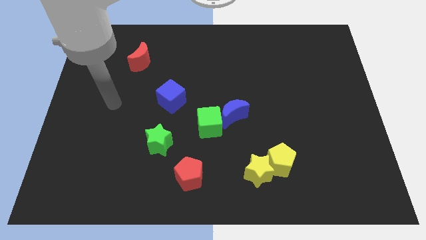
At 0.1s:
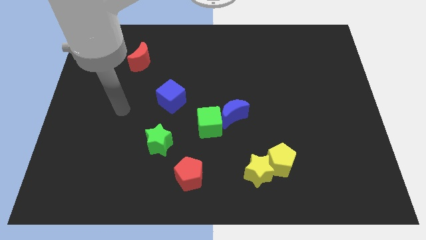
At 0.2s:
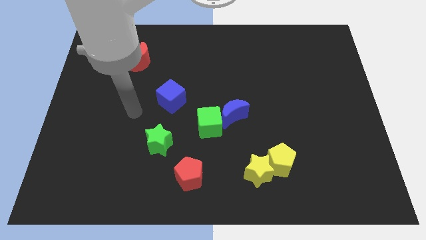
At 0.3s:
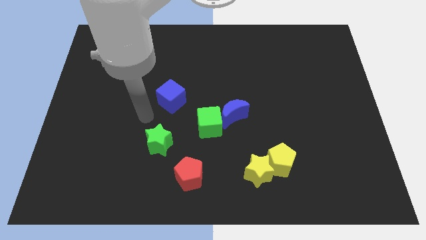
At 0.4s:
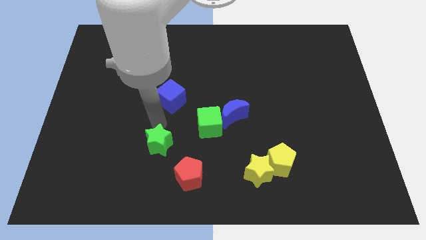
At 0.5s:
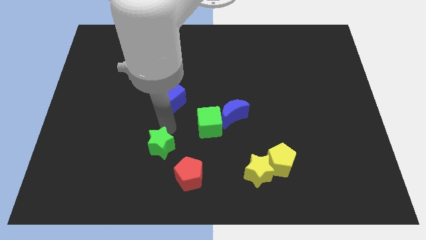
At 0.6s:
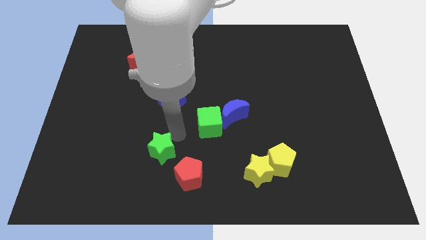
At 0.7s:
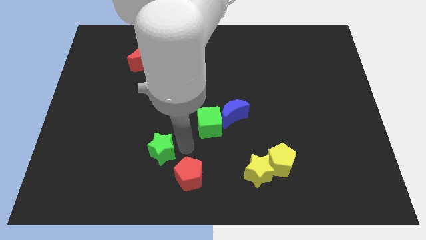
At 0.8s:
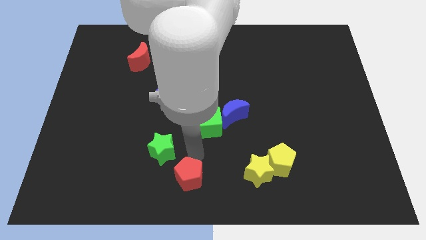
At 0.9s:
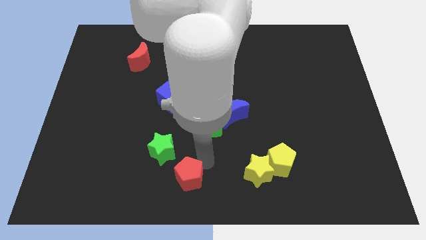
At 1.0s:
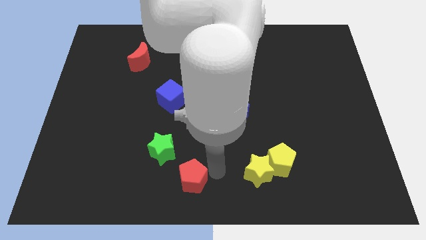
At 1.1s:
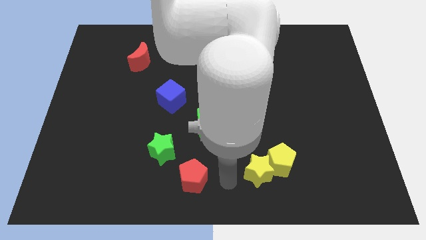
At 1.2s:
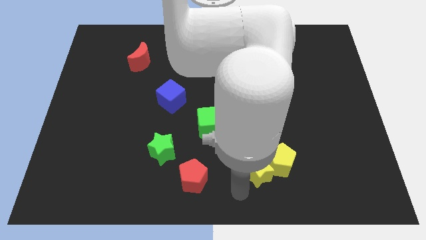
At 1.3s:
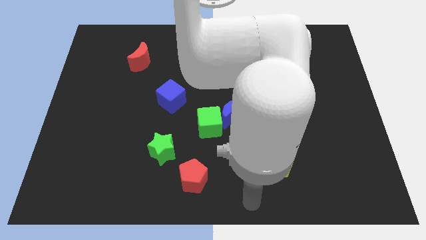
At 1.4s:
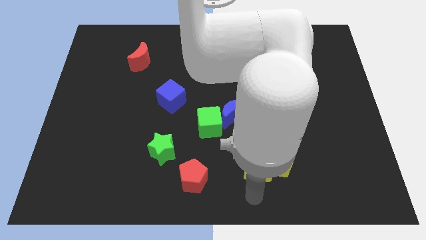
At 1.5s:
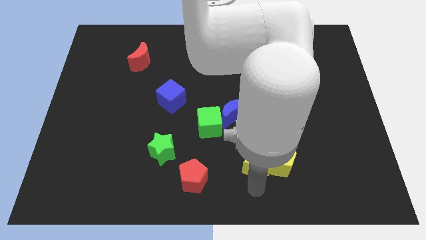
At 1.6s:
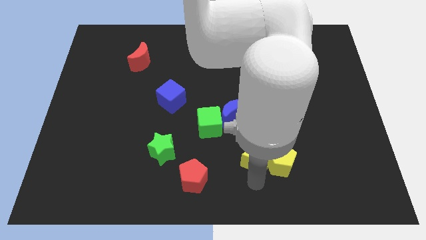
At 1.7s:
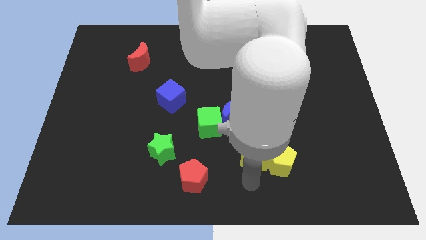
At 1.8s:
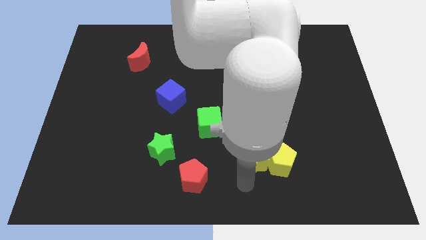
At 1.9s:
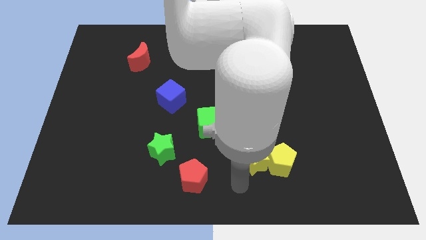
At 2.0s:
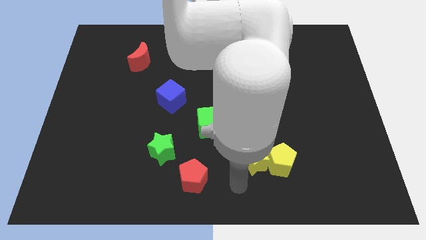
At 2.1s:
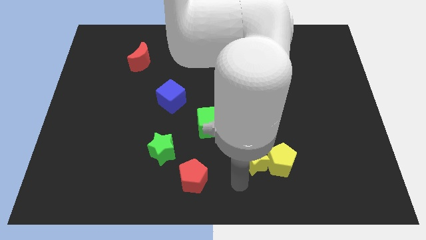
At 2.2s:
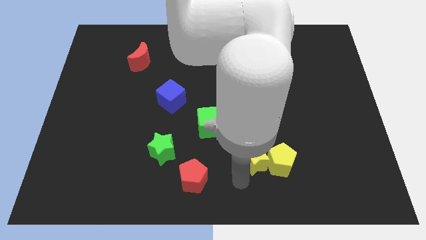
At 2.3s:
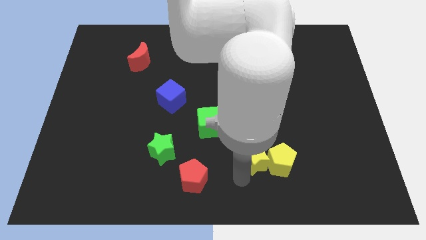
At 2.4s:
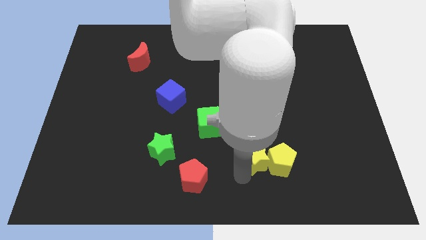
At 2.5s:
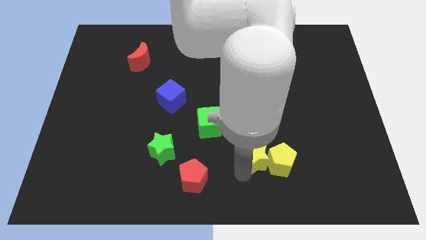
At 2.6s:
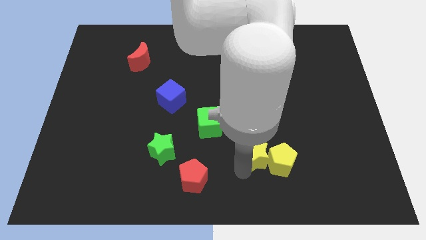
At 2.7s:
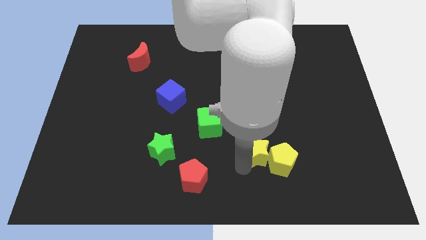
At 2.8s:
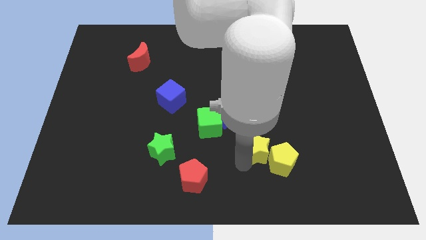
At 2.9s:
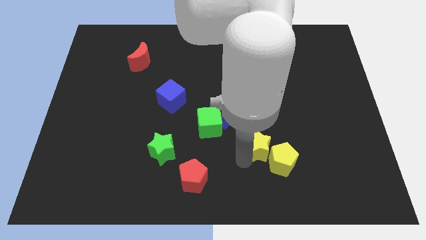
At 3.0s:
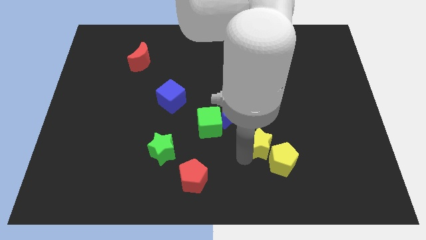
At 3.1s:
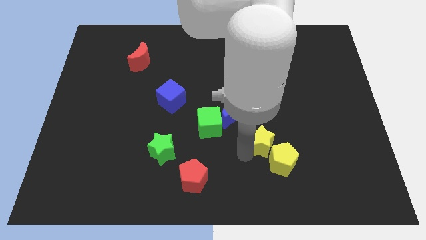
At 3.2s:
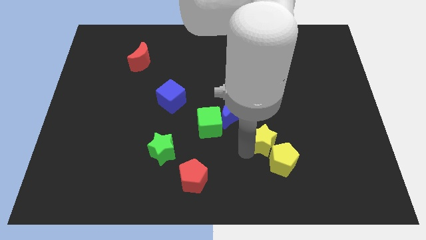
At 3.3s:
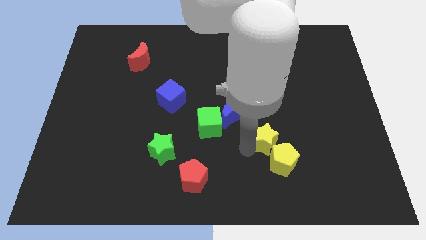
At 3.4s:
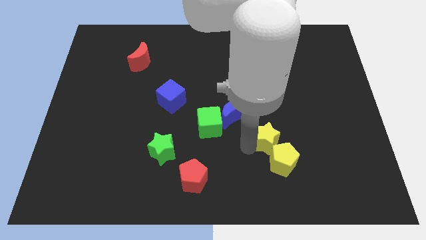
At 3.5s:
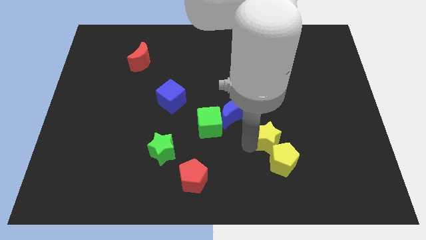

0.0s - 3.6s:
slightly push the yellow star upwards and right

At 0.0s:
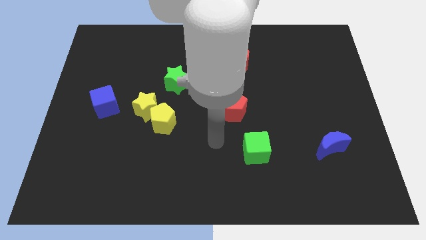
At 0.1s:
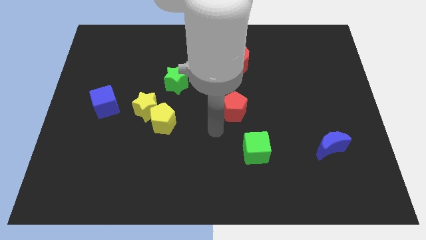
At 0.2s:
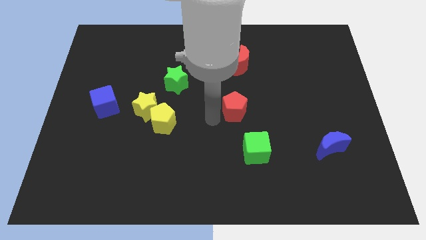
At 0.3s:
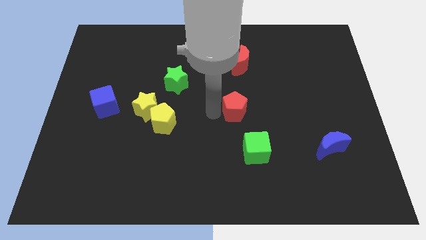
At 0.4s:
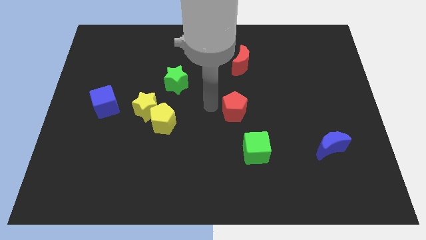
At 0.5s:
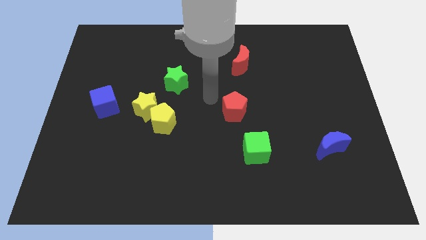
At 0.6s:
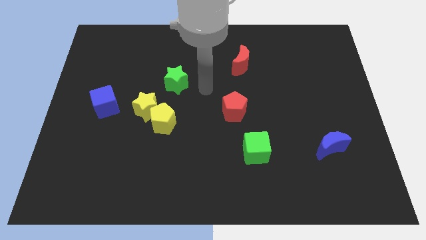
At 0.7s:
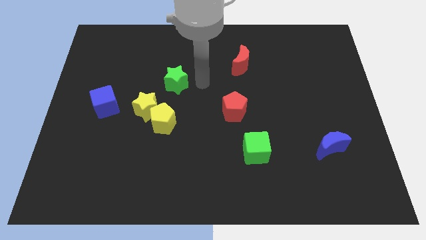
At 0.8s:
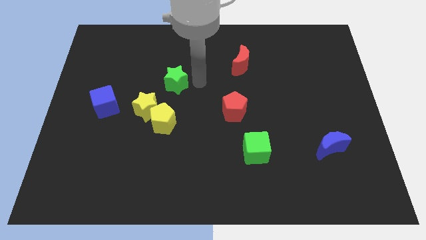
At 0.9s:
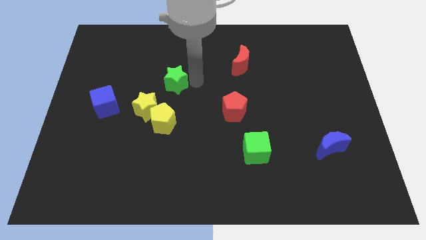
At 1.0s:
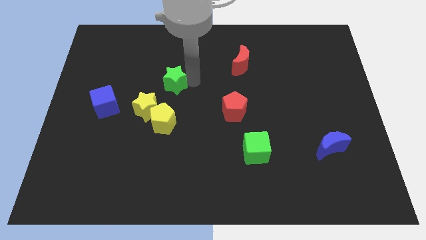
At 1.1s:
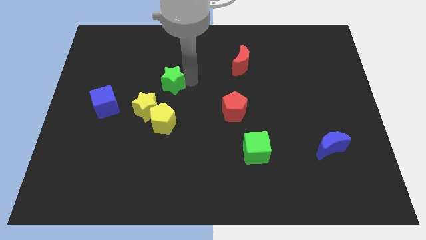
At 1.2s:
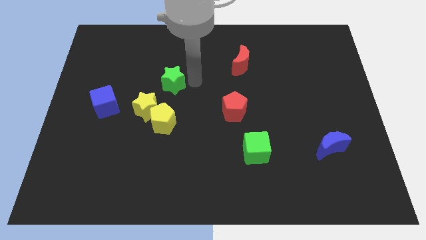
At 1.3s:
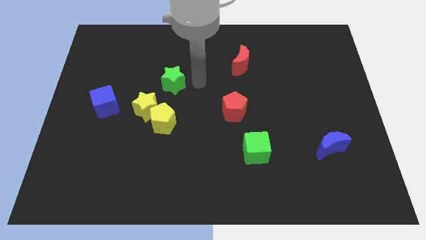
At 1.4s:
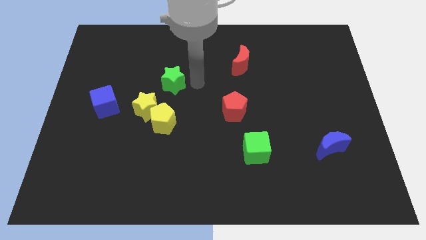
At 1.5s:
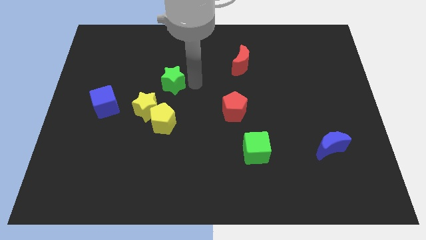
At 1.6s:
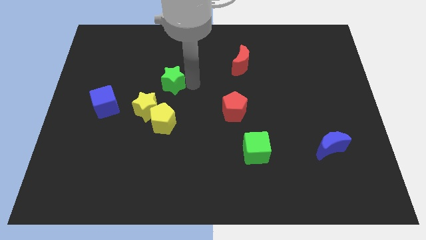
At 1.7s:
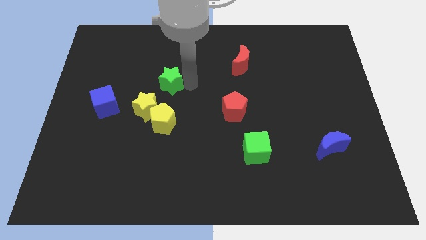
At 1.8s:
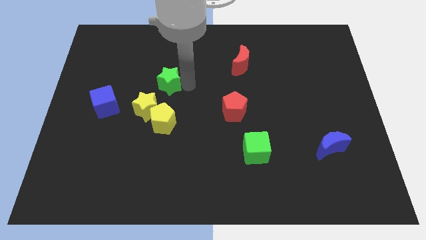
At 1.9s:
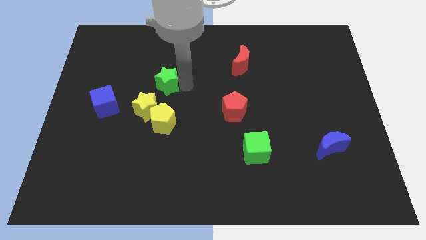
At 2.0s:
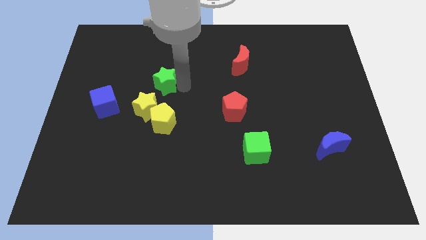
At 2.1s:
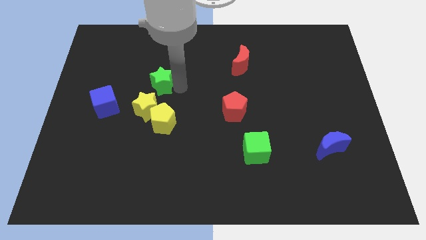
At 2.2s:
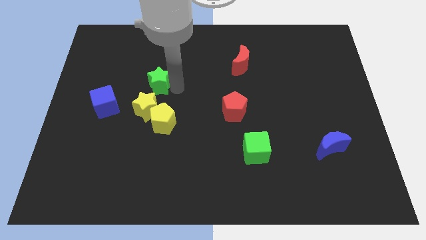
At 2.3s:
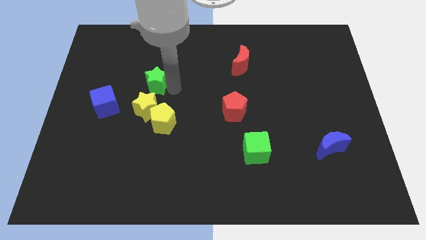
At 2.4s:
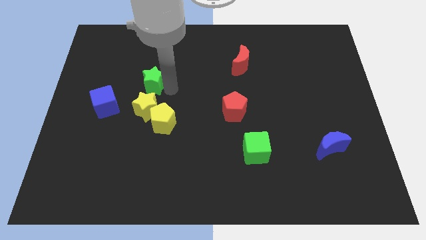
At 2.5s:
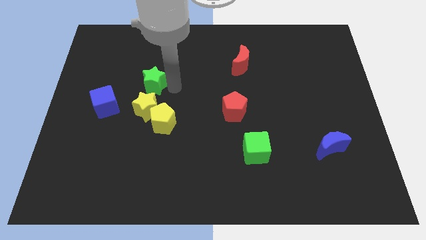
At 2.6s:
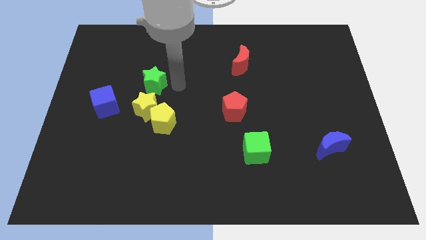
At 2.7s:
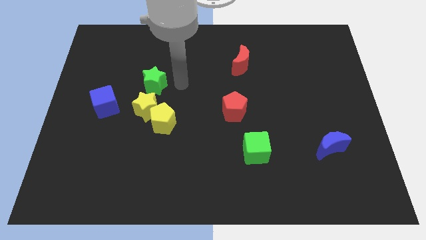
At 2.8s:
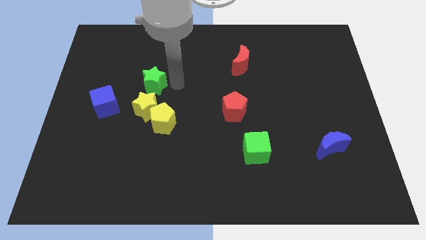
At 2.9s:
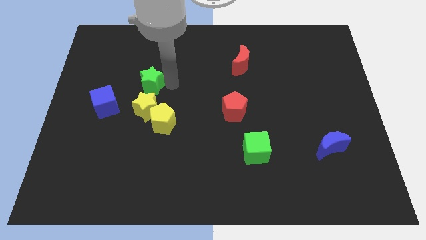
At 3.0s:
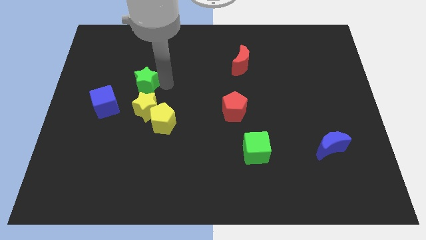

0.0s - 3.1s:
push the green star to the left a little

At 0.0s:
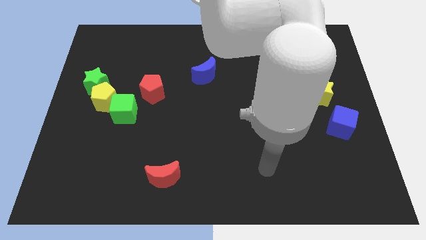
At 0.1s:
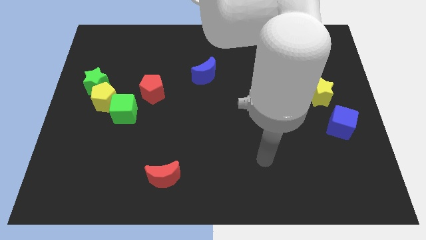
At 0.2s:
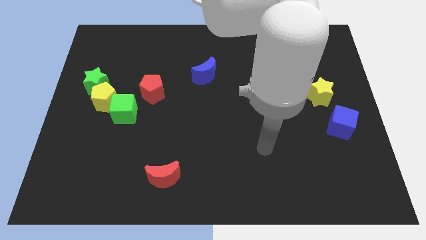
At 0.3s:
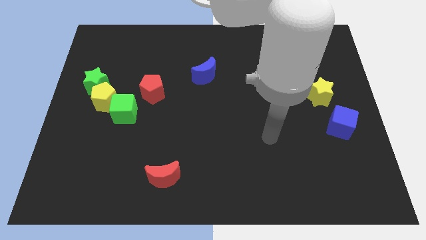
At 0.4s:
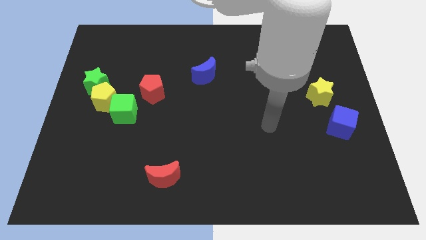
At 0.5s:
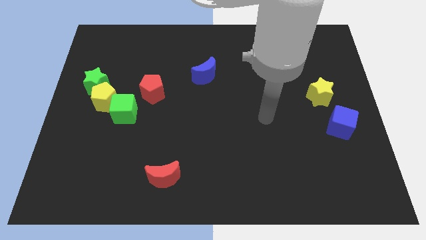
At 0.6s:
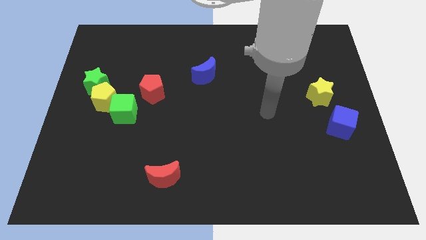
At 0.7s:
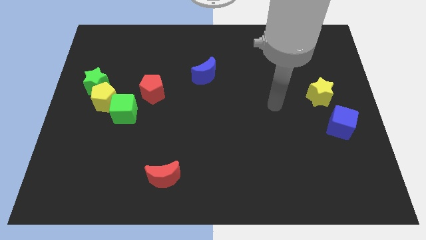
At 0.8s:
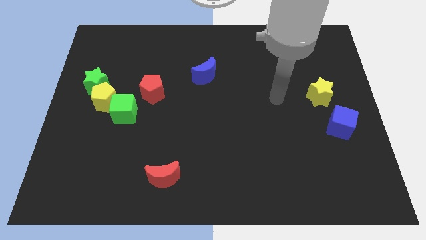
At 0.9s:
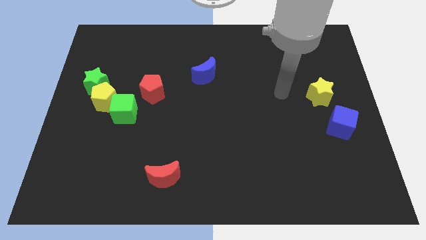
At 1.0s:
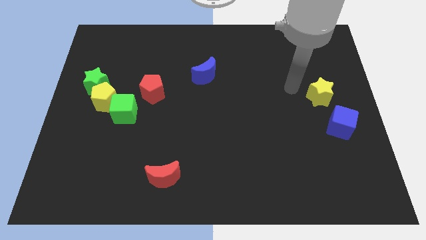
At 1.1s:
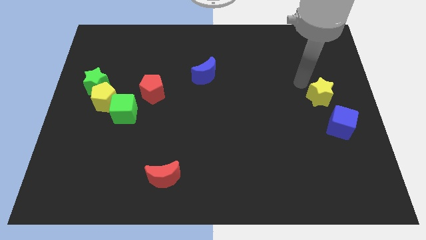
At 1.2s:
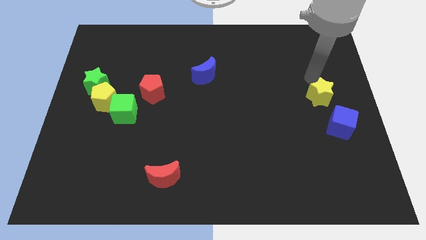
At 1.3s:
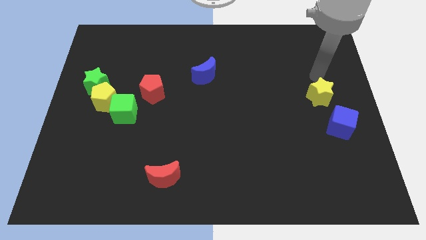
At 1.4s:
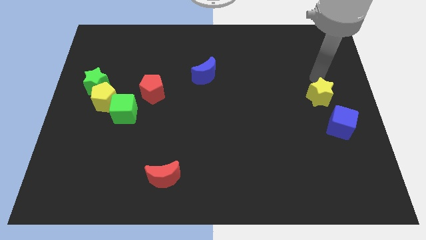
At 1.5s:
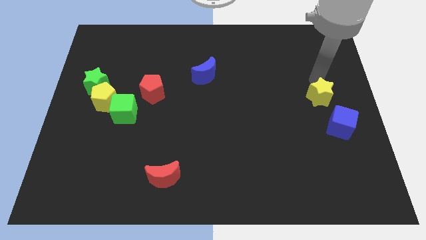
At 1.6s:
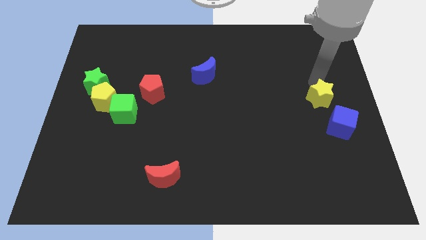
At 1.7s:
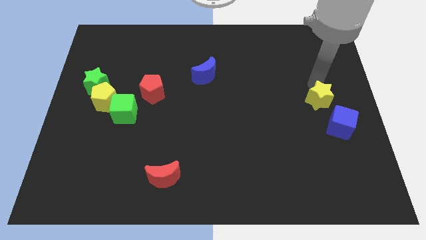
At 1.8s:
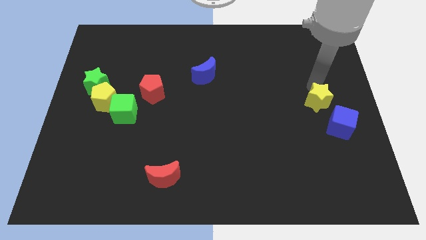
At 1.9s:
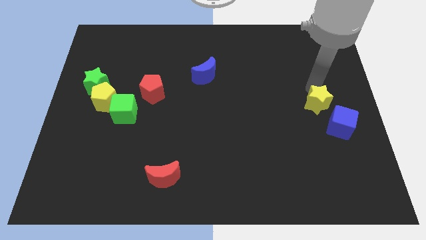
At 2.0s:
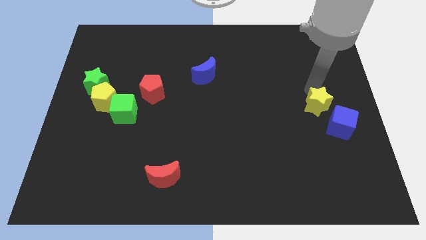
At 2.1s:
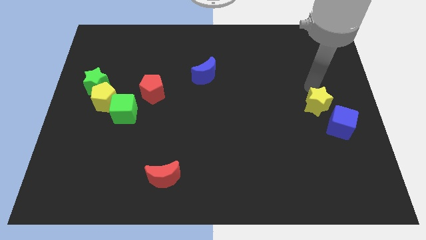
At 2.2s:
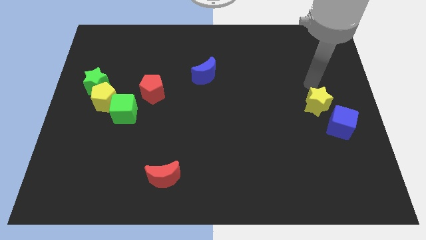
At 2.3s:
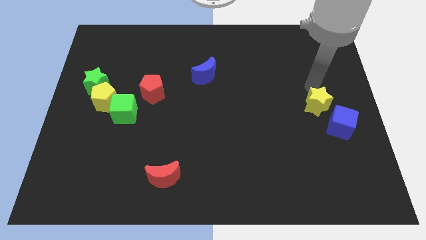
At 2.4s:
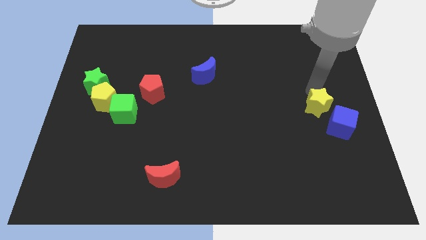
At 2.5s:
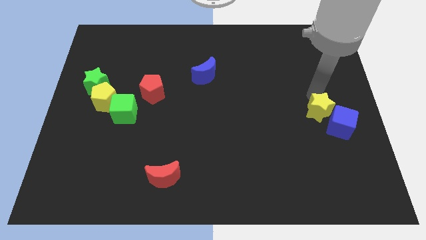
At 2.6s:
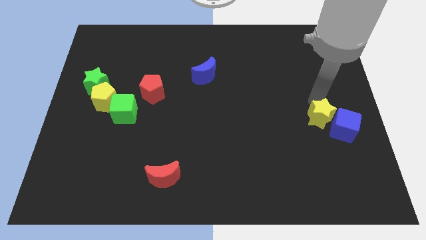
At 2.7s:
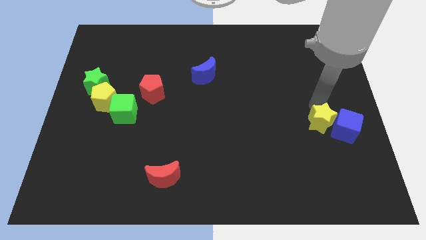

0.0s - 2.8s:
move the yellow star downwards somewhat
